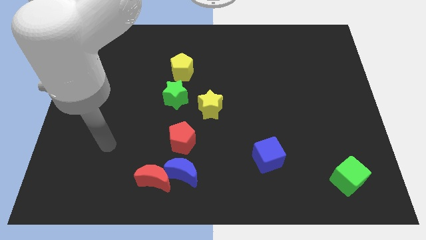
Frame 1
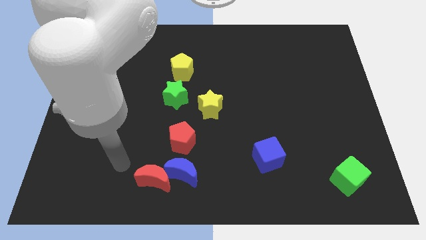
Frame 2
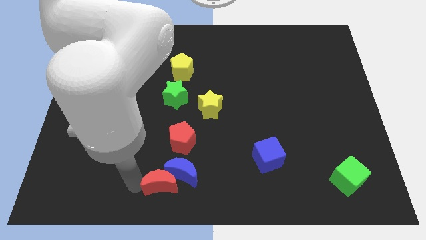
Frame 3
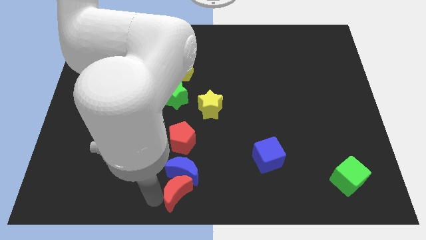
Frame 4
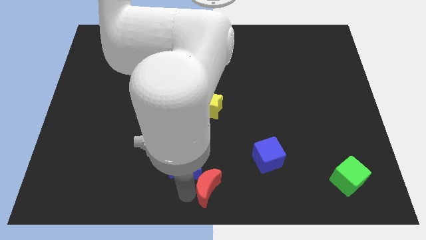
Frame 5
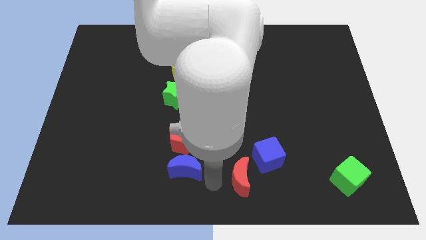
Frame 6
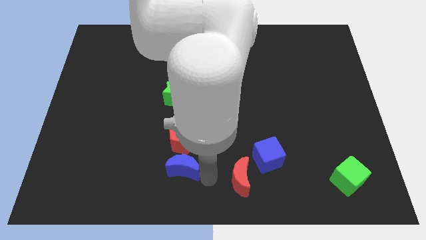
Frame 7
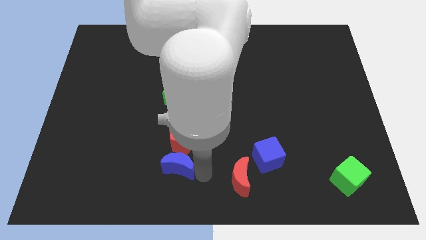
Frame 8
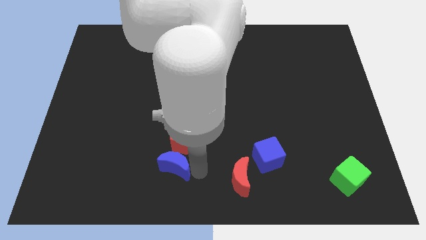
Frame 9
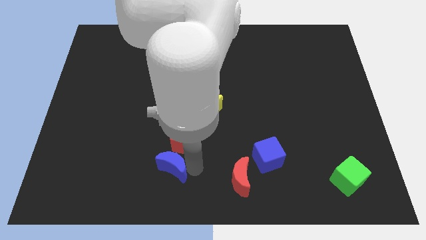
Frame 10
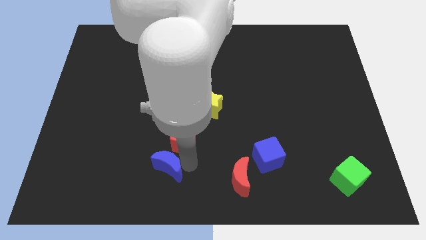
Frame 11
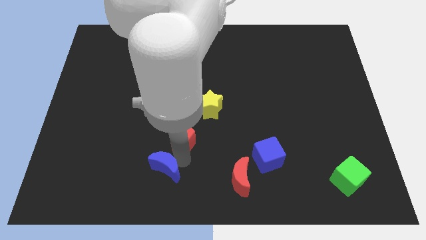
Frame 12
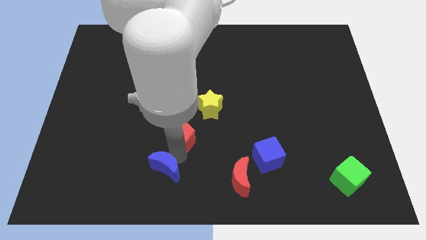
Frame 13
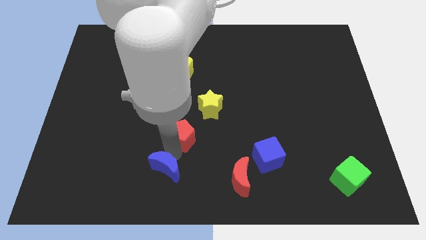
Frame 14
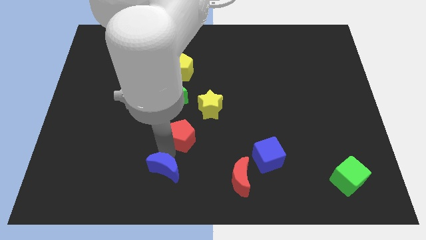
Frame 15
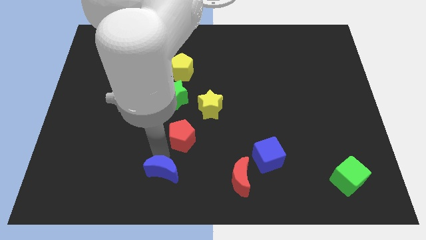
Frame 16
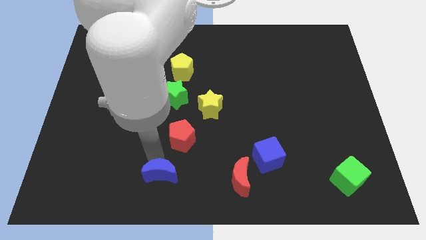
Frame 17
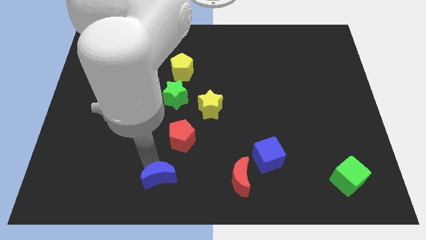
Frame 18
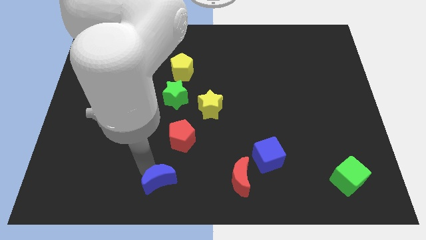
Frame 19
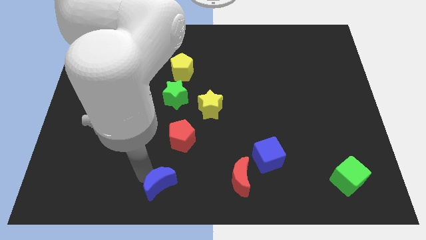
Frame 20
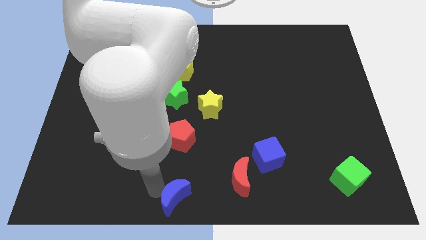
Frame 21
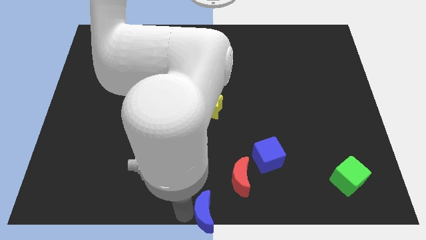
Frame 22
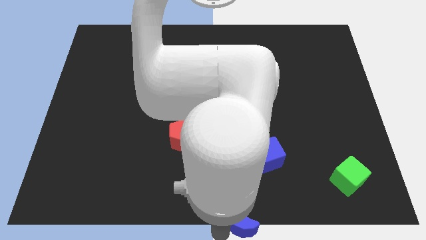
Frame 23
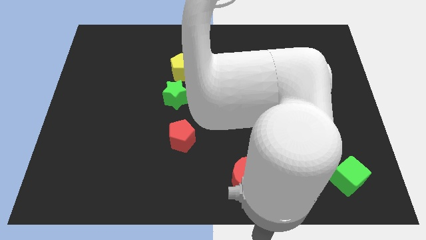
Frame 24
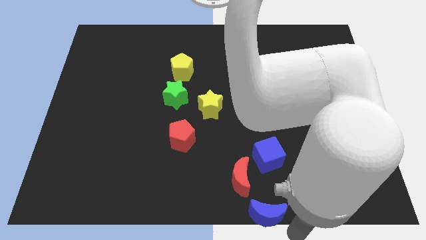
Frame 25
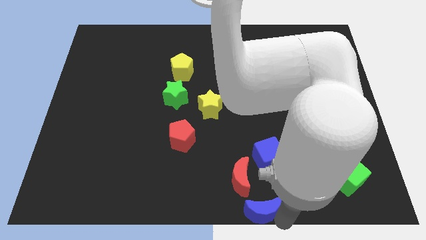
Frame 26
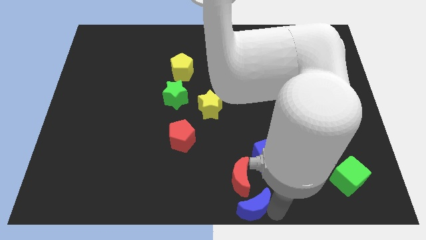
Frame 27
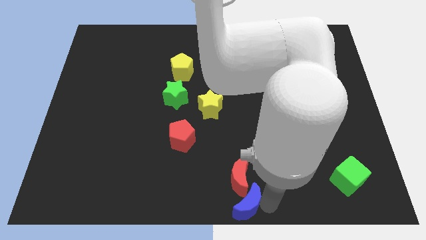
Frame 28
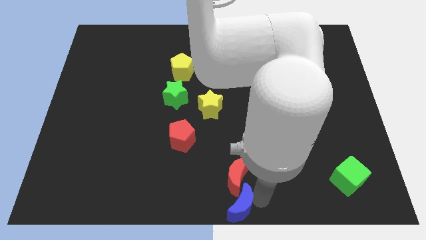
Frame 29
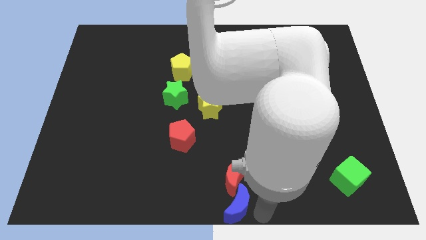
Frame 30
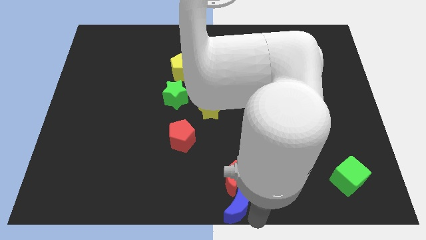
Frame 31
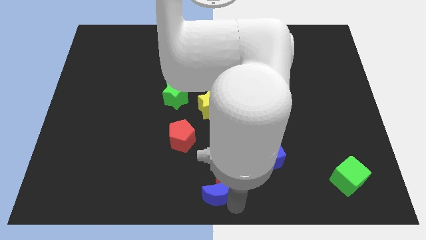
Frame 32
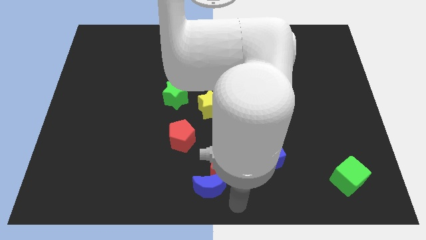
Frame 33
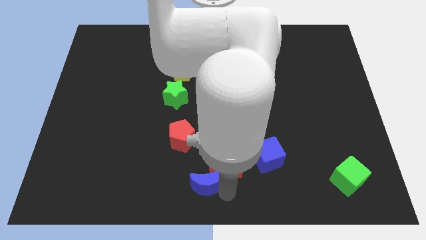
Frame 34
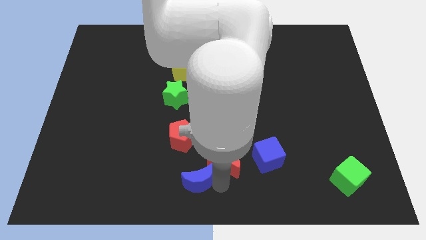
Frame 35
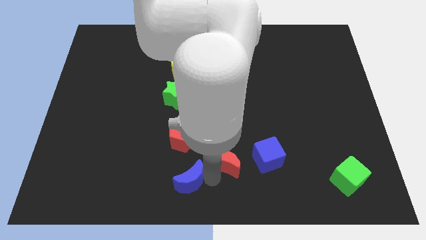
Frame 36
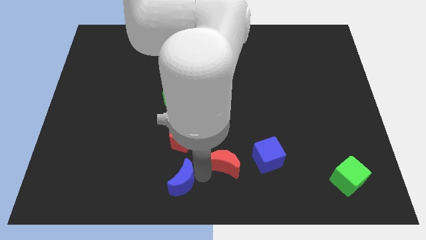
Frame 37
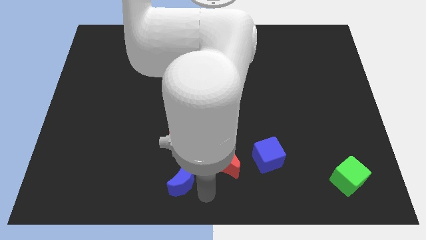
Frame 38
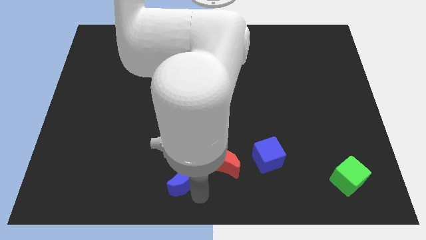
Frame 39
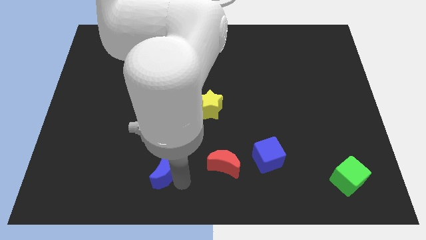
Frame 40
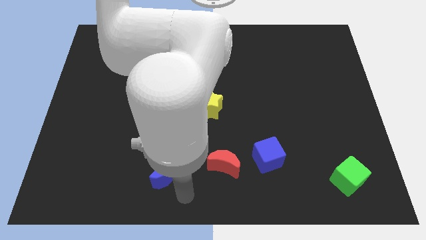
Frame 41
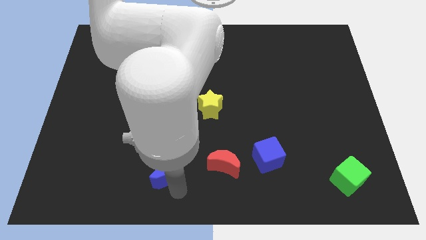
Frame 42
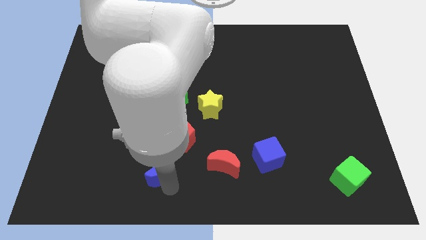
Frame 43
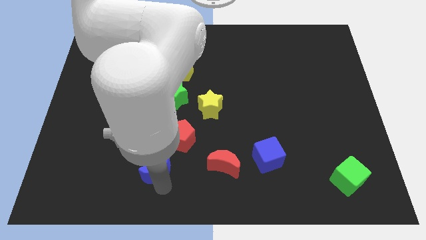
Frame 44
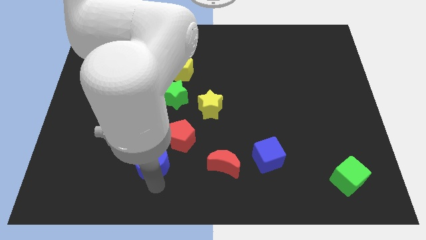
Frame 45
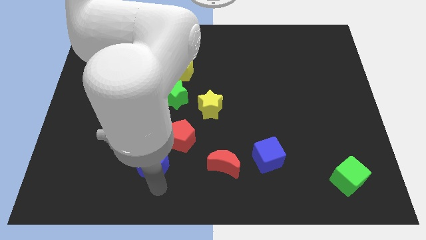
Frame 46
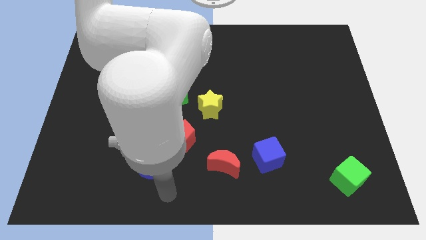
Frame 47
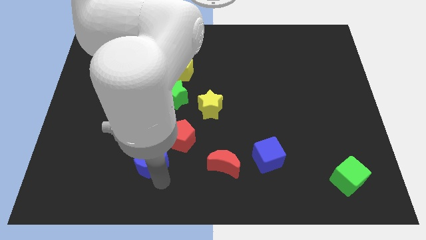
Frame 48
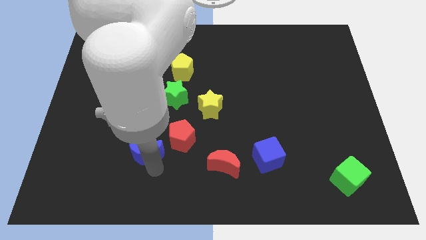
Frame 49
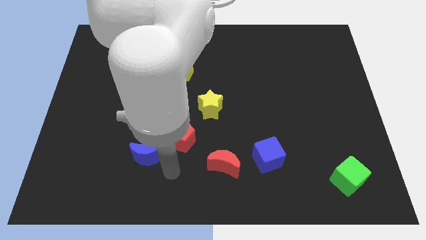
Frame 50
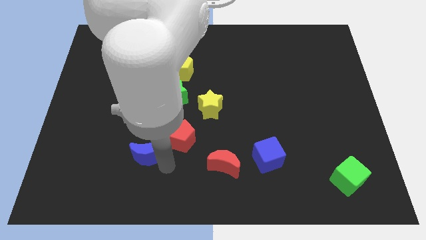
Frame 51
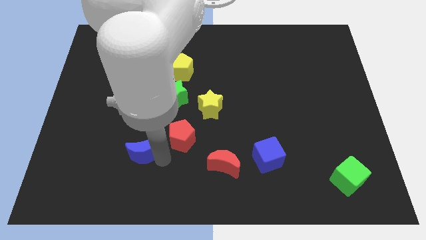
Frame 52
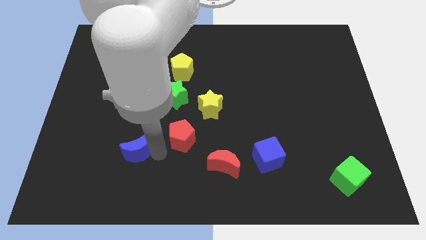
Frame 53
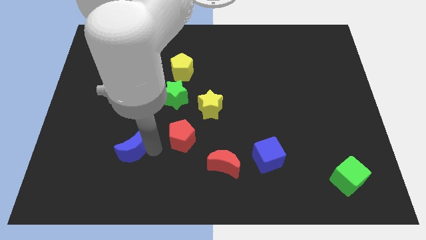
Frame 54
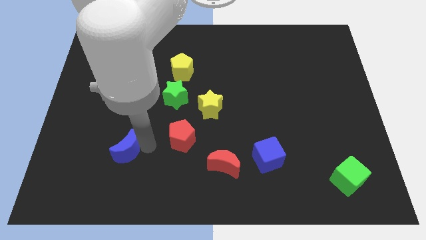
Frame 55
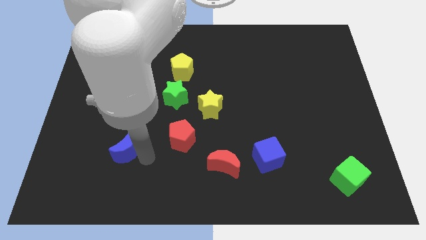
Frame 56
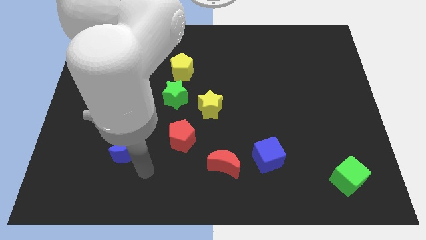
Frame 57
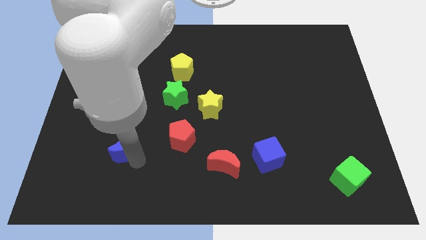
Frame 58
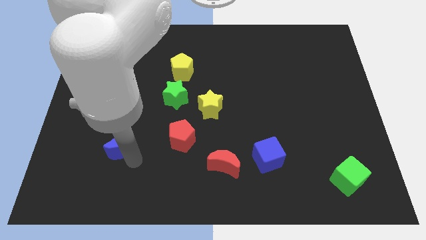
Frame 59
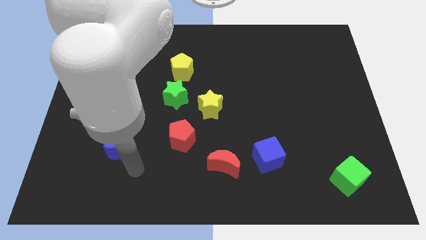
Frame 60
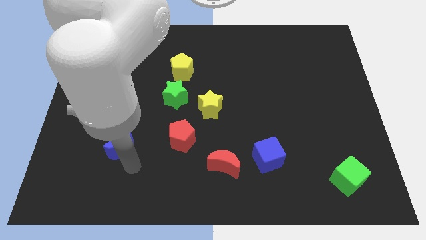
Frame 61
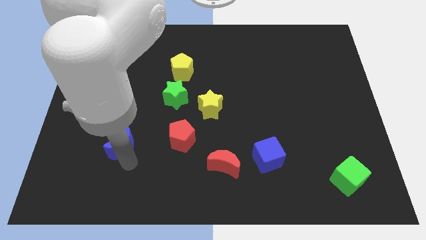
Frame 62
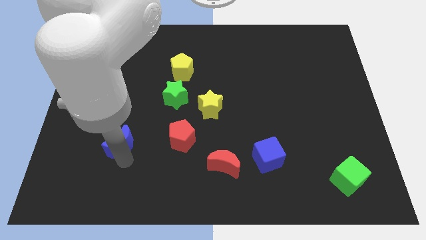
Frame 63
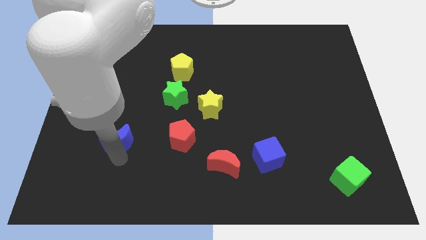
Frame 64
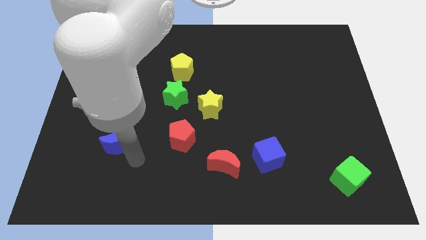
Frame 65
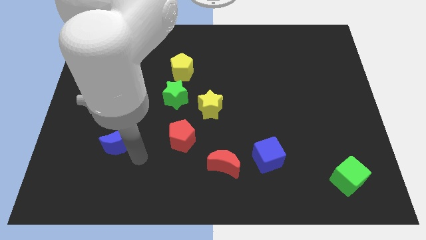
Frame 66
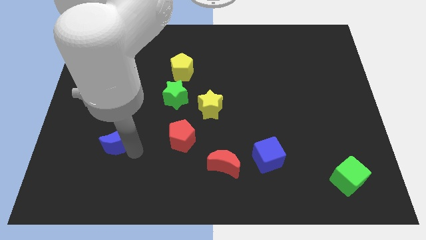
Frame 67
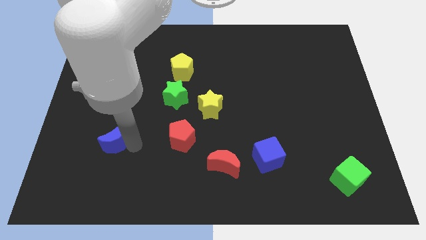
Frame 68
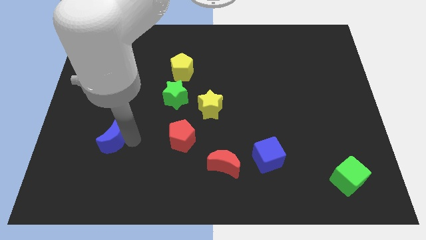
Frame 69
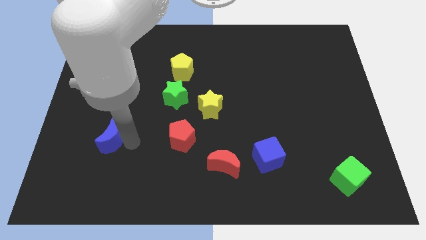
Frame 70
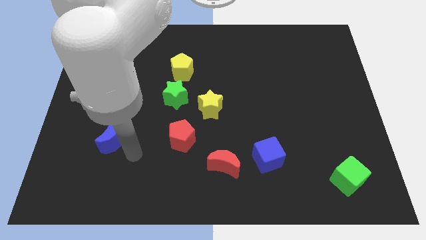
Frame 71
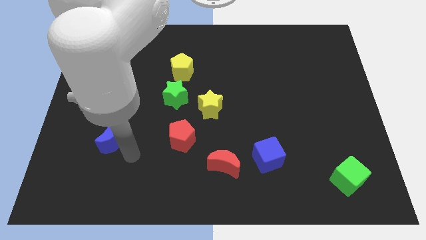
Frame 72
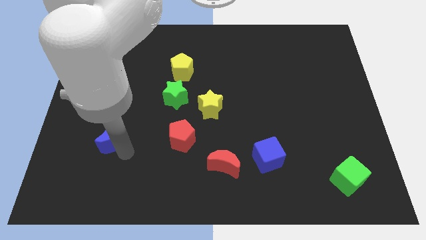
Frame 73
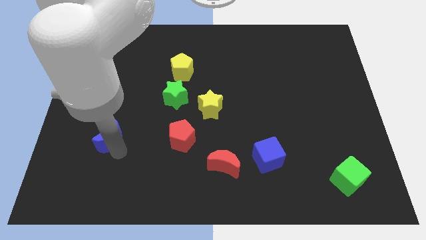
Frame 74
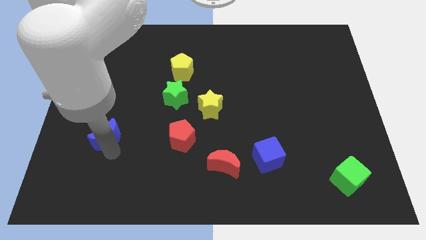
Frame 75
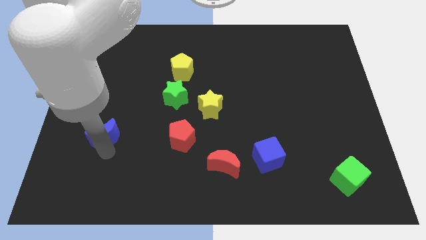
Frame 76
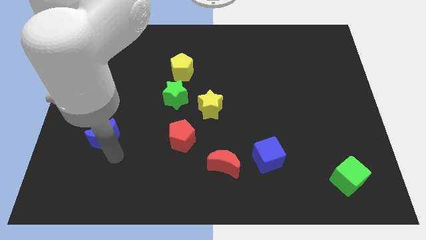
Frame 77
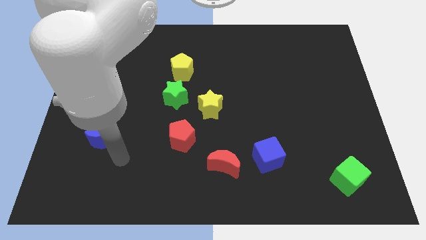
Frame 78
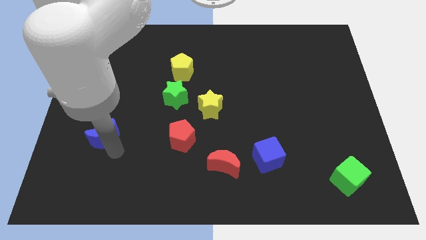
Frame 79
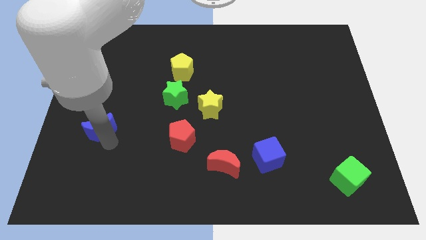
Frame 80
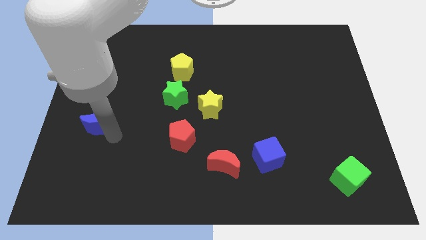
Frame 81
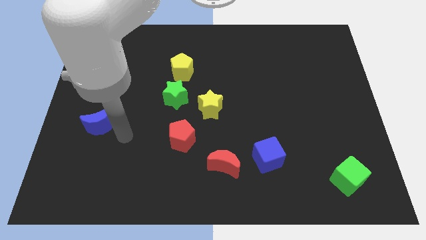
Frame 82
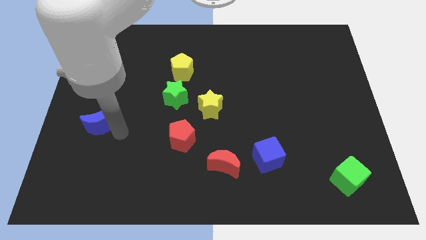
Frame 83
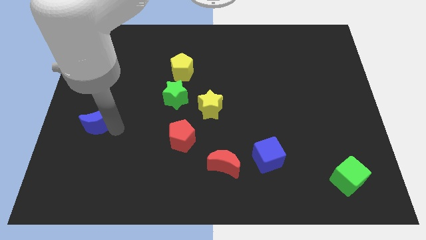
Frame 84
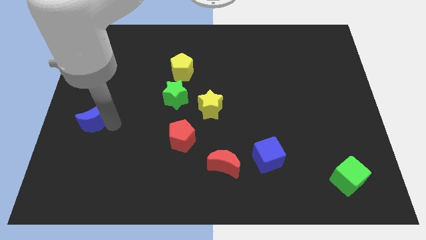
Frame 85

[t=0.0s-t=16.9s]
put the blue moon to the left side of the board
